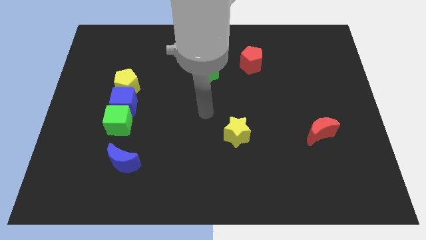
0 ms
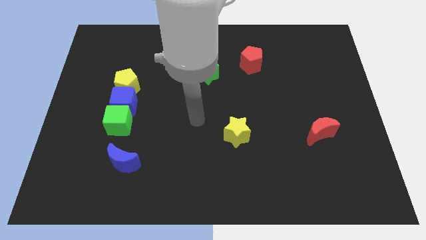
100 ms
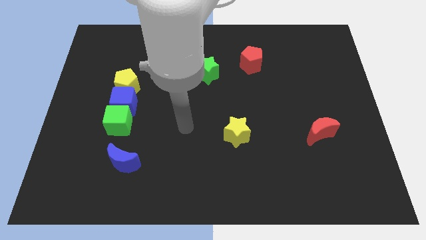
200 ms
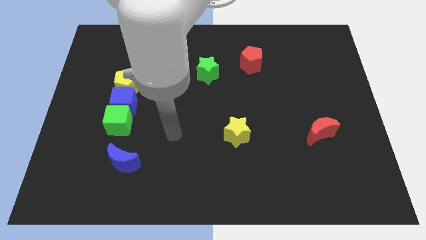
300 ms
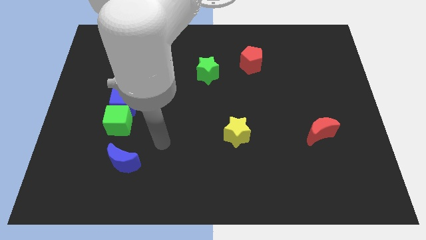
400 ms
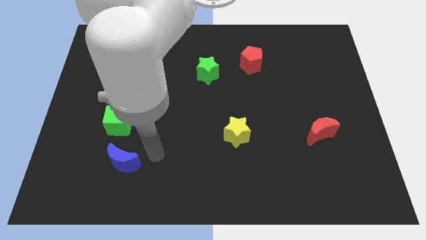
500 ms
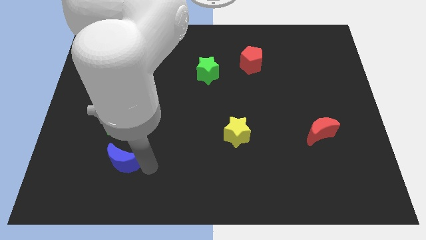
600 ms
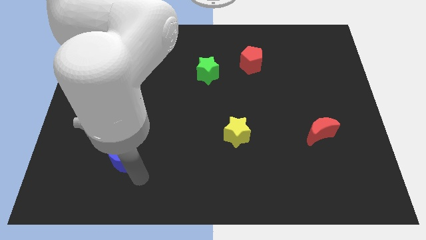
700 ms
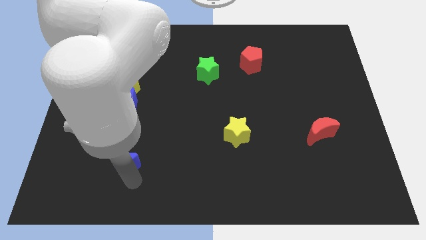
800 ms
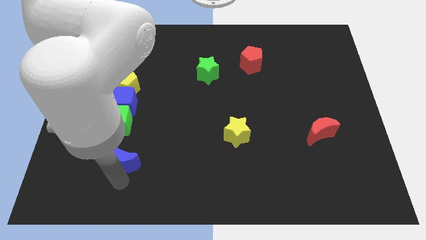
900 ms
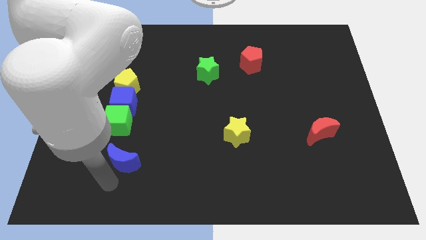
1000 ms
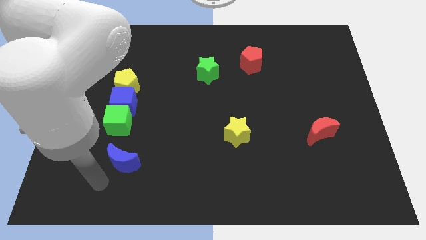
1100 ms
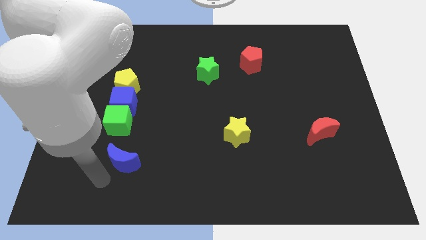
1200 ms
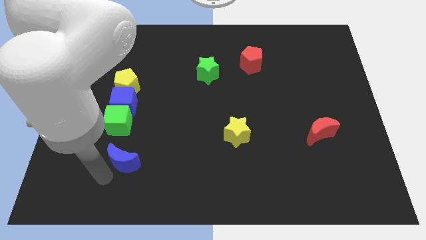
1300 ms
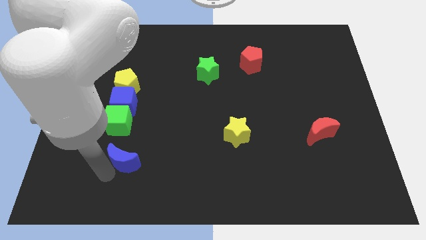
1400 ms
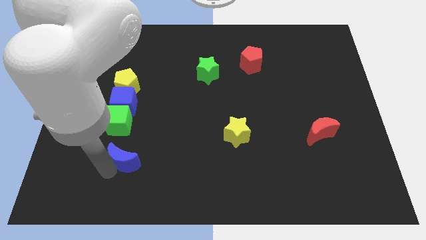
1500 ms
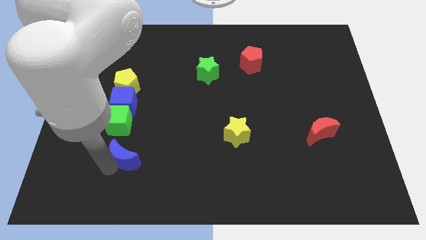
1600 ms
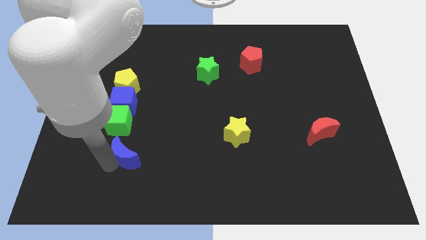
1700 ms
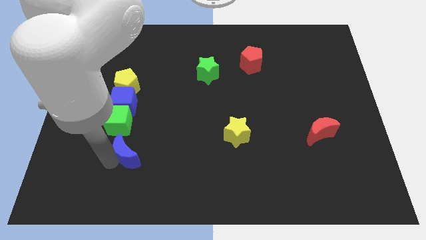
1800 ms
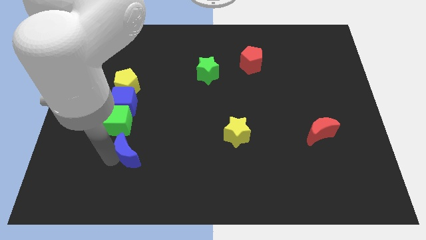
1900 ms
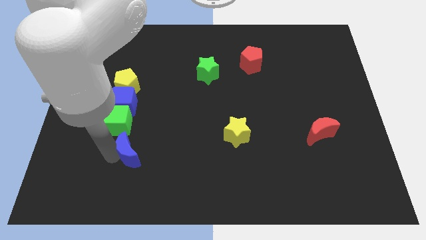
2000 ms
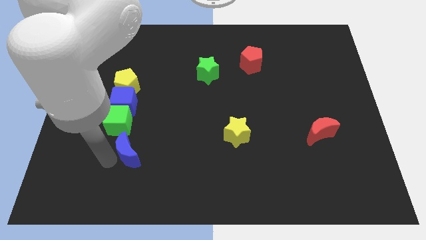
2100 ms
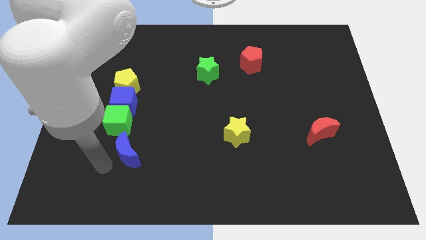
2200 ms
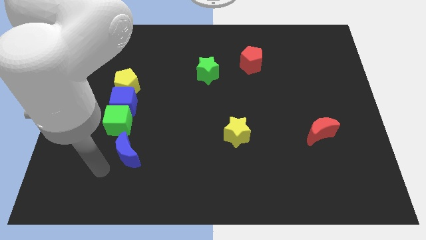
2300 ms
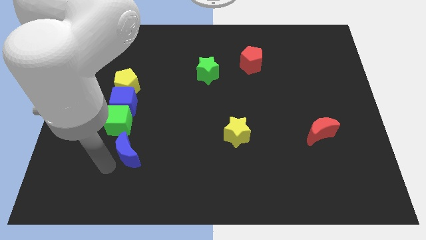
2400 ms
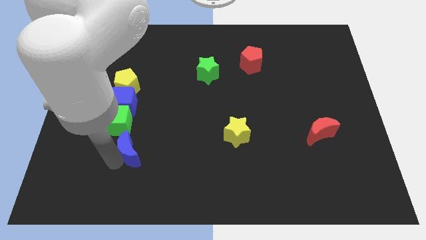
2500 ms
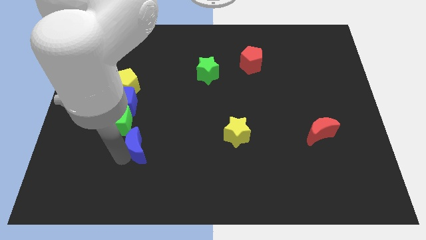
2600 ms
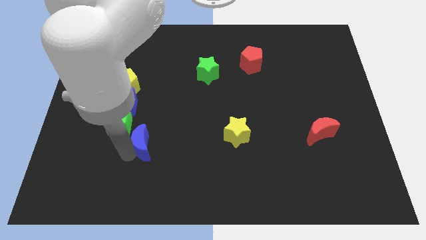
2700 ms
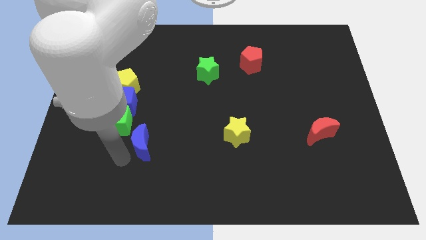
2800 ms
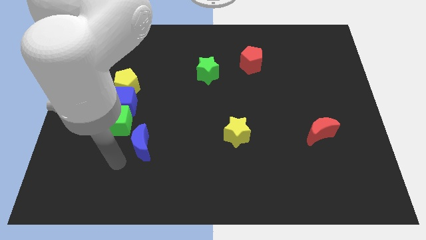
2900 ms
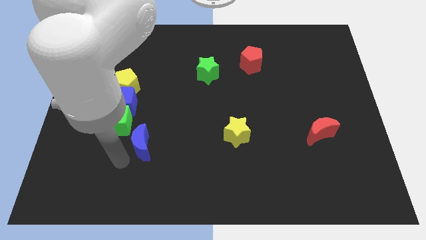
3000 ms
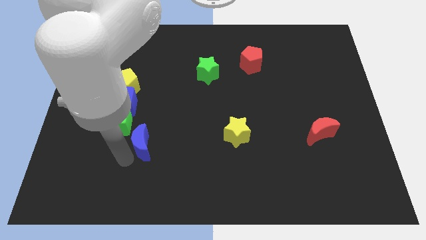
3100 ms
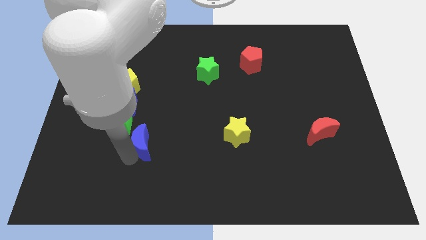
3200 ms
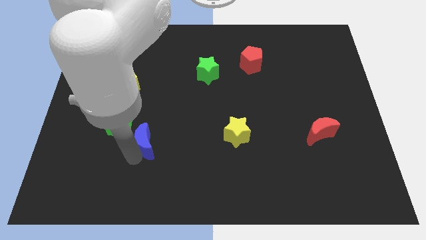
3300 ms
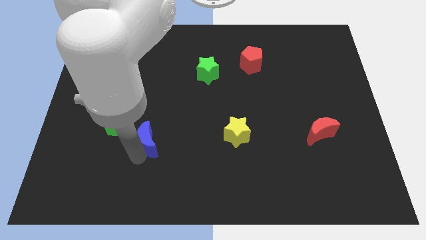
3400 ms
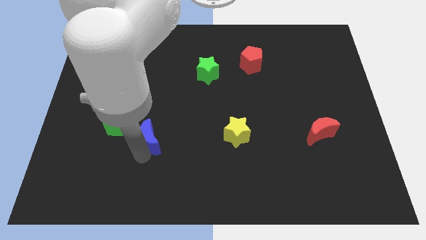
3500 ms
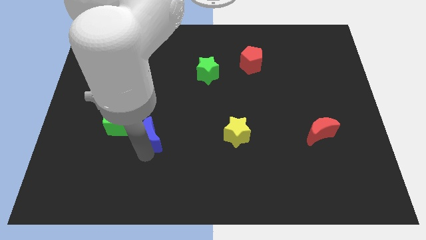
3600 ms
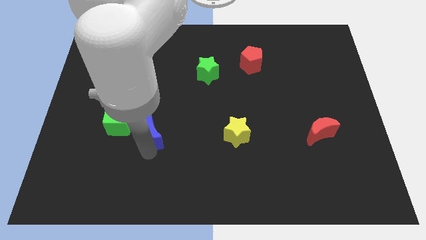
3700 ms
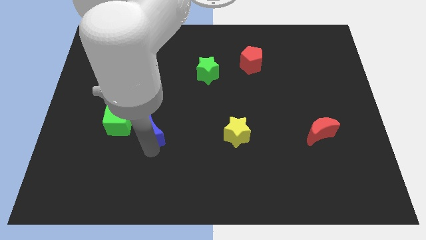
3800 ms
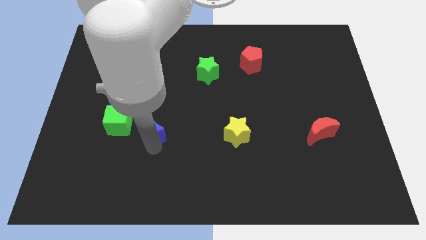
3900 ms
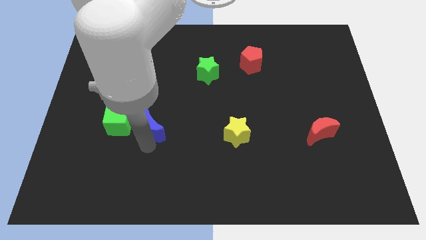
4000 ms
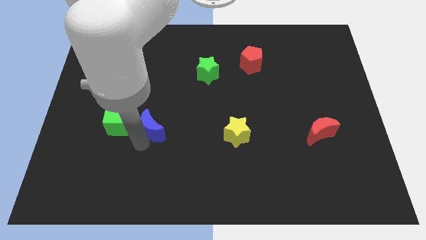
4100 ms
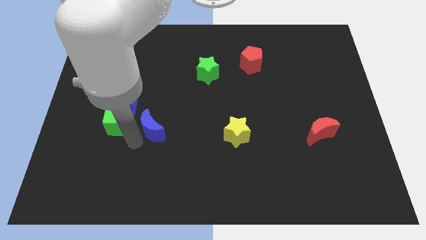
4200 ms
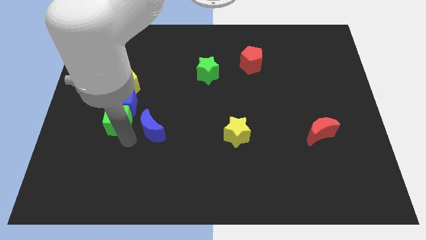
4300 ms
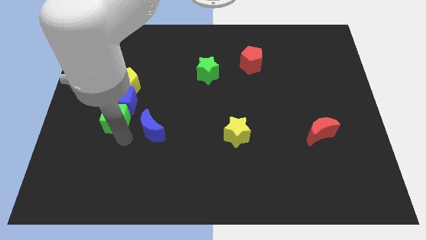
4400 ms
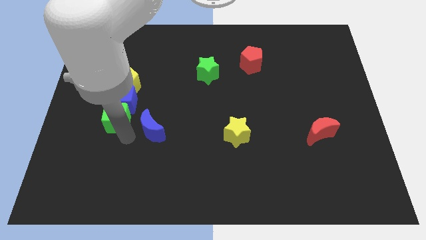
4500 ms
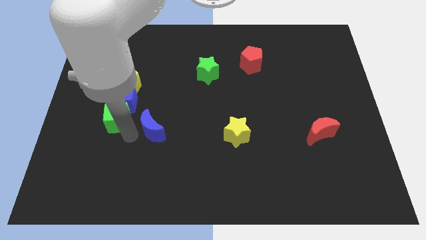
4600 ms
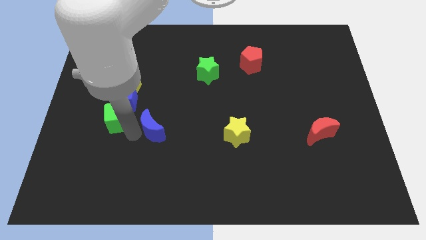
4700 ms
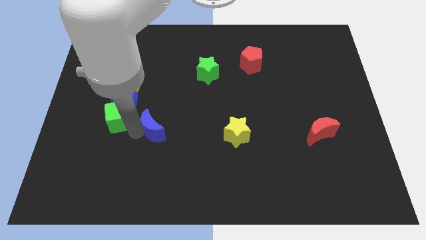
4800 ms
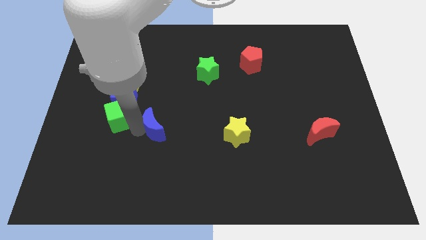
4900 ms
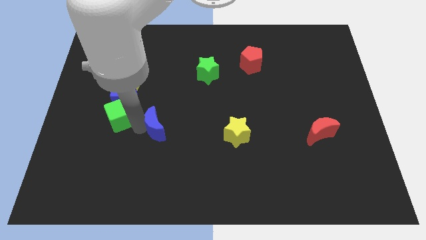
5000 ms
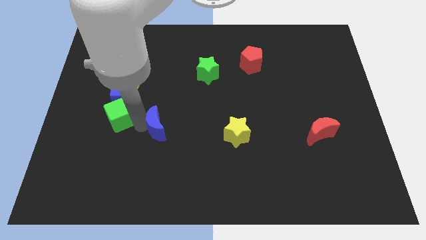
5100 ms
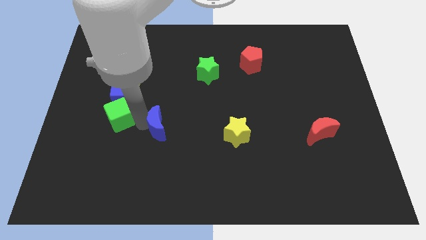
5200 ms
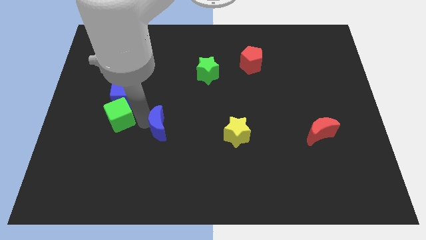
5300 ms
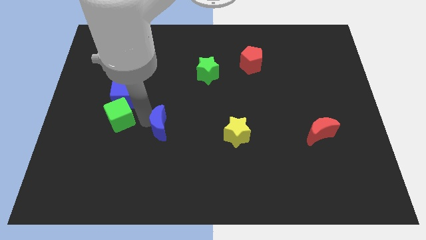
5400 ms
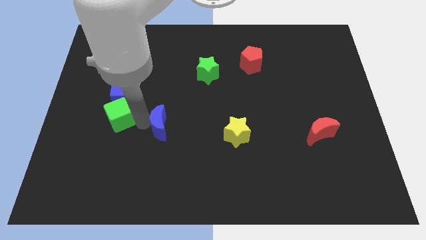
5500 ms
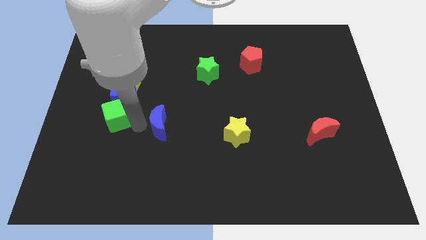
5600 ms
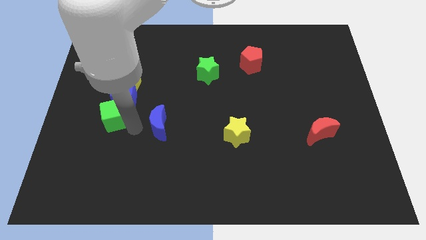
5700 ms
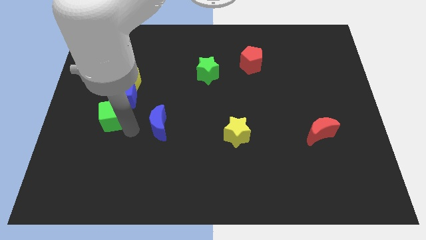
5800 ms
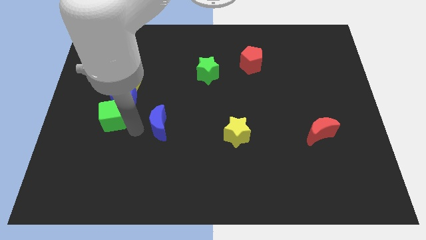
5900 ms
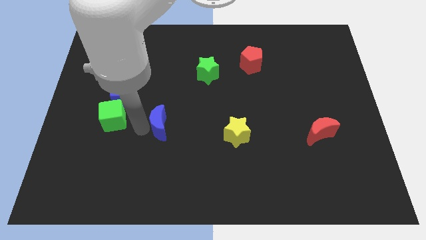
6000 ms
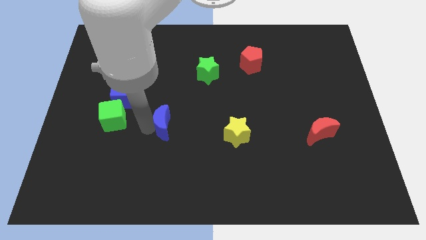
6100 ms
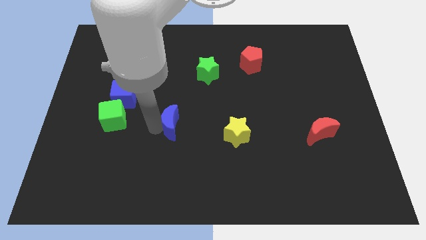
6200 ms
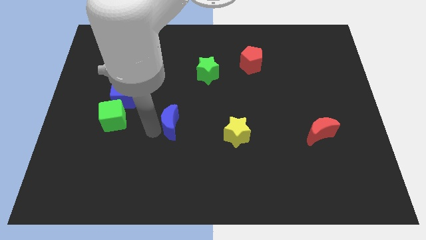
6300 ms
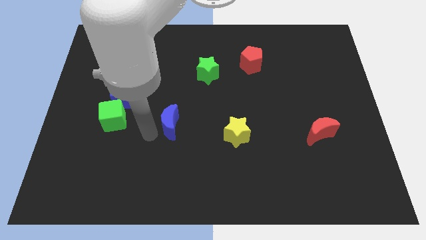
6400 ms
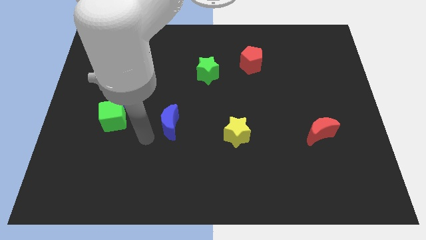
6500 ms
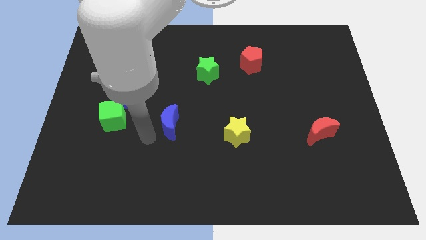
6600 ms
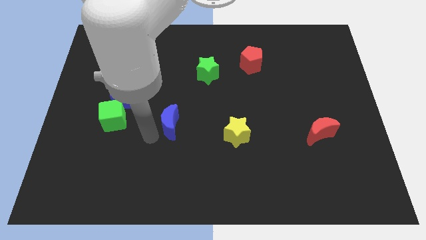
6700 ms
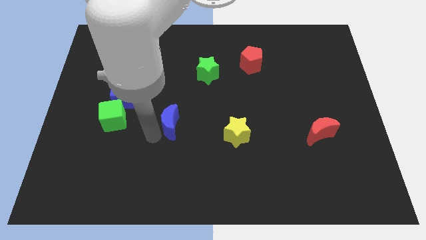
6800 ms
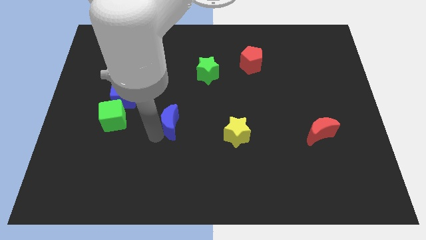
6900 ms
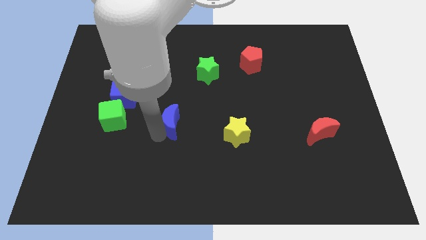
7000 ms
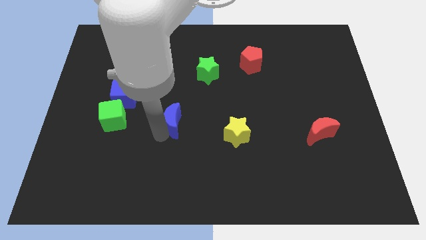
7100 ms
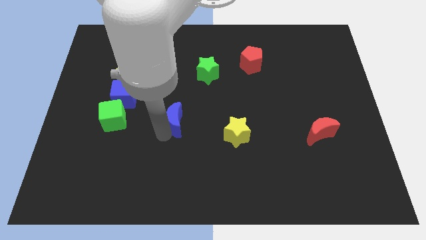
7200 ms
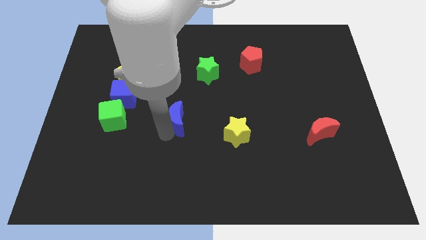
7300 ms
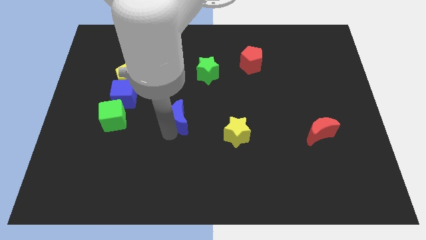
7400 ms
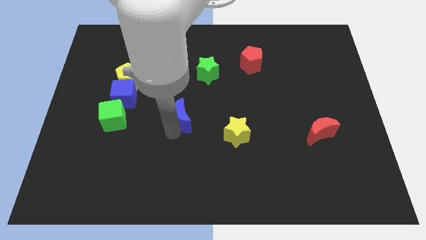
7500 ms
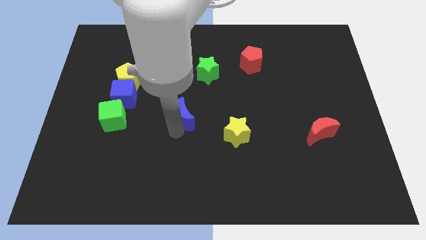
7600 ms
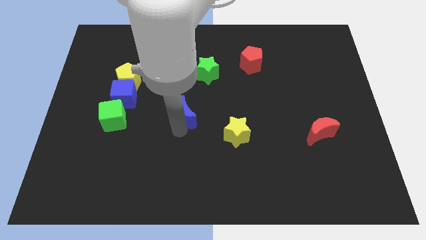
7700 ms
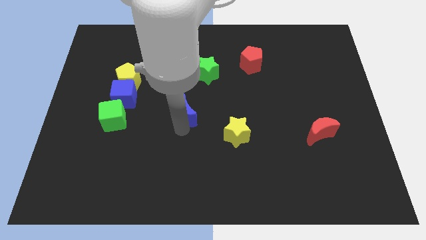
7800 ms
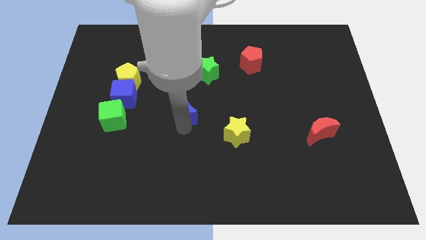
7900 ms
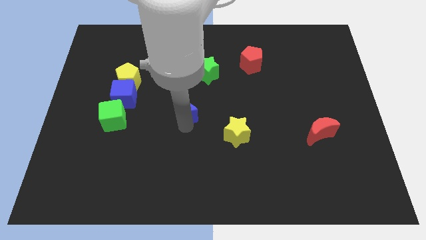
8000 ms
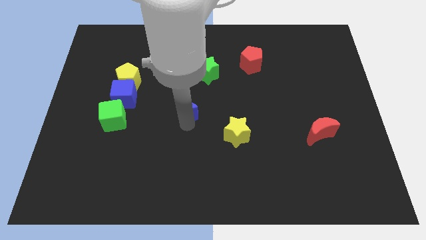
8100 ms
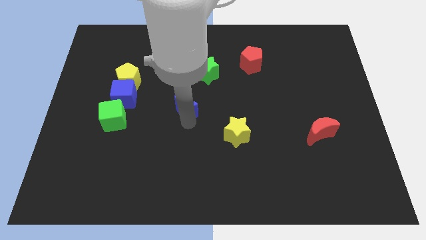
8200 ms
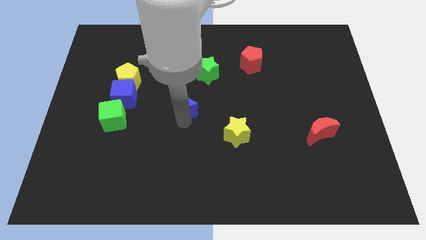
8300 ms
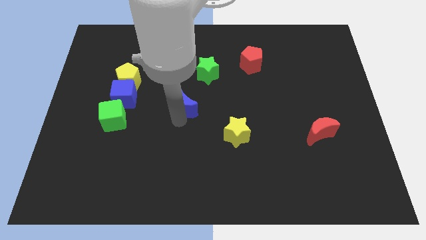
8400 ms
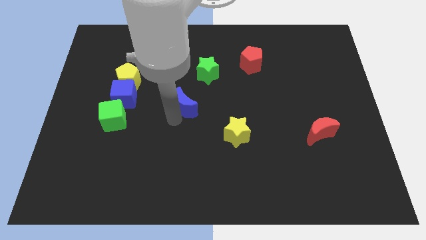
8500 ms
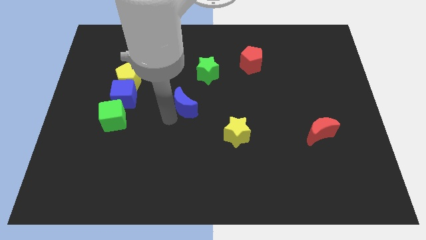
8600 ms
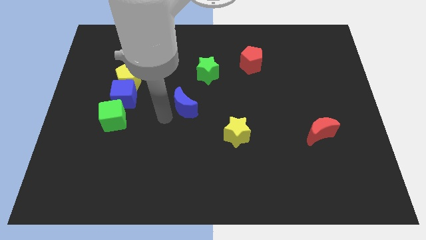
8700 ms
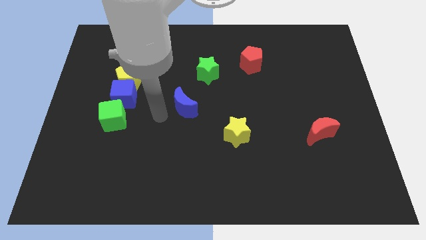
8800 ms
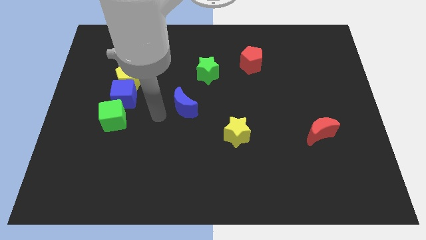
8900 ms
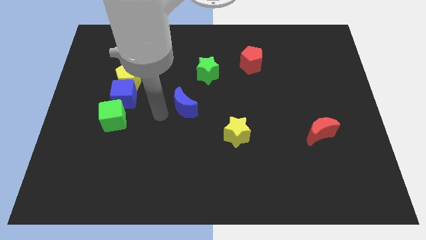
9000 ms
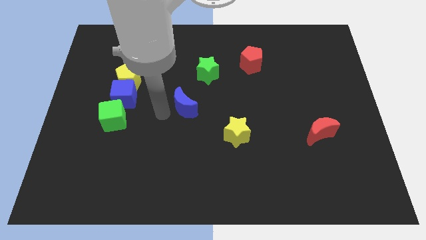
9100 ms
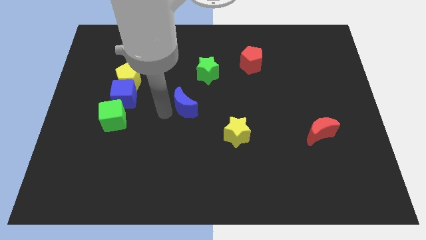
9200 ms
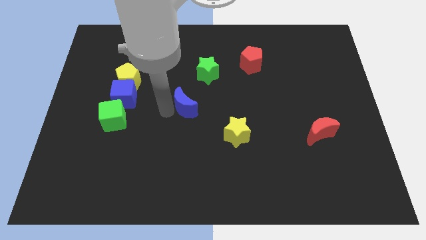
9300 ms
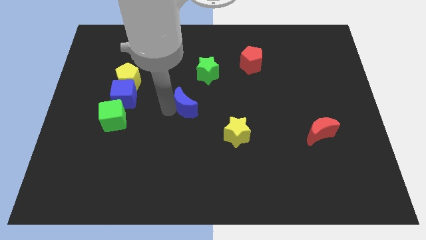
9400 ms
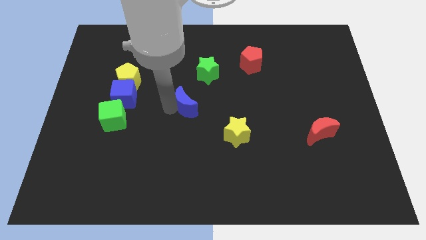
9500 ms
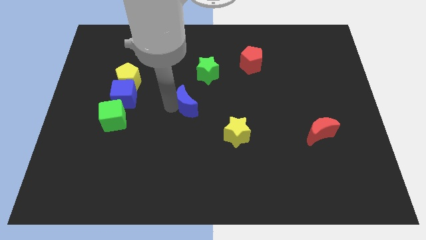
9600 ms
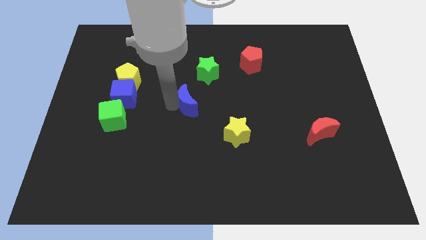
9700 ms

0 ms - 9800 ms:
move the blue moon diagonally up and right
